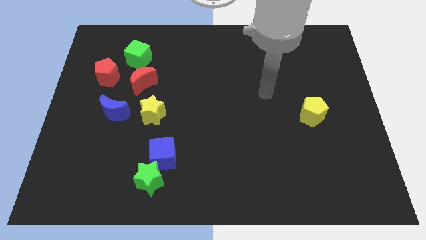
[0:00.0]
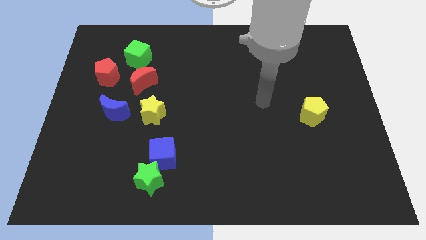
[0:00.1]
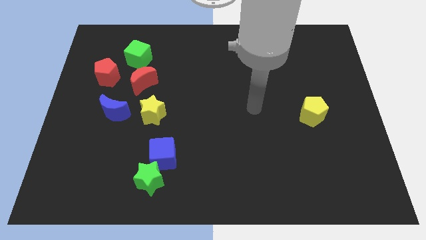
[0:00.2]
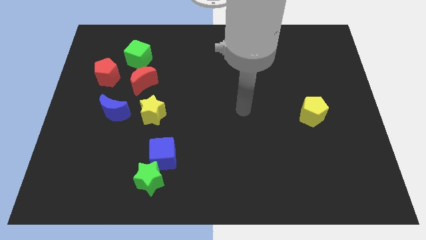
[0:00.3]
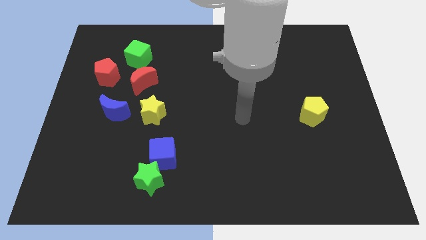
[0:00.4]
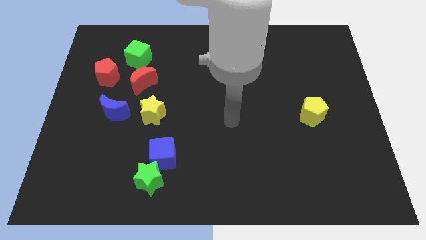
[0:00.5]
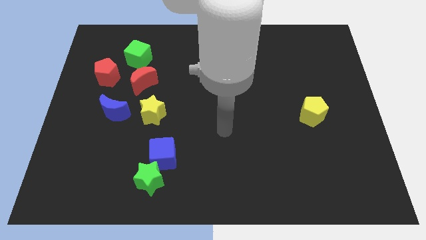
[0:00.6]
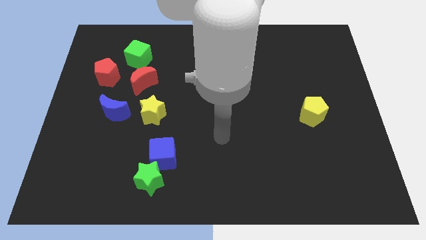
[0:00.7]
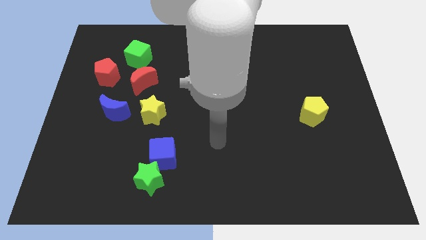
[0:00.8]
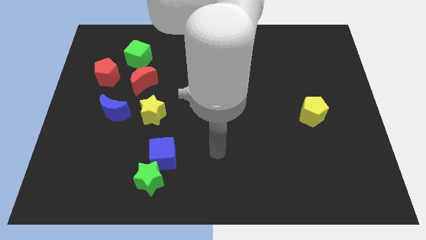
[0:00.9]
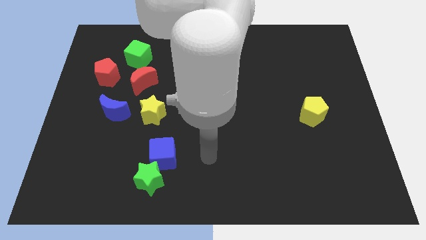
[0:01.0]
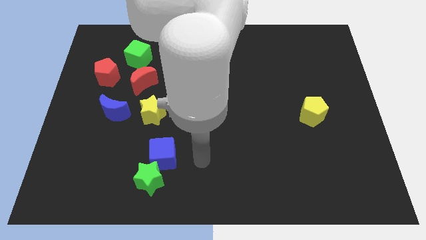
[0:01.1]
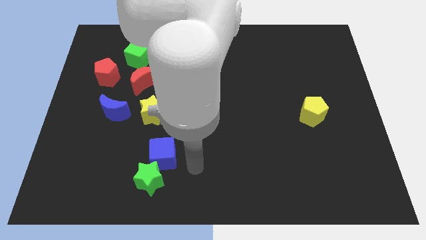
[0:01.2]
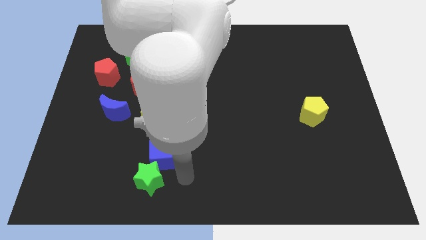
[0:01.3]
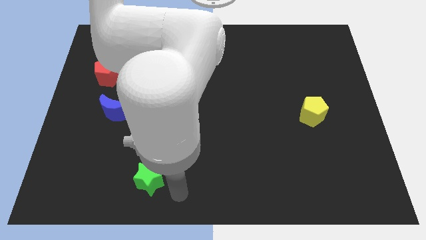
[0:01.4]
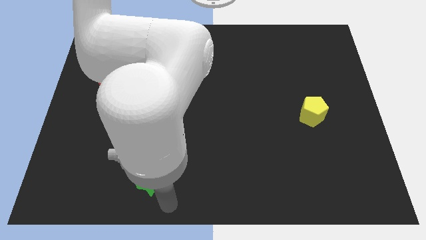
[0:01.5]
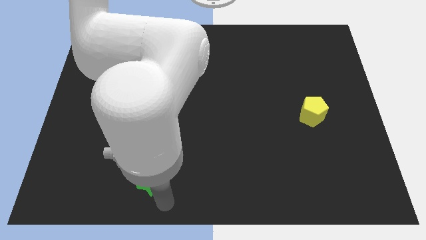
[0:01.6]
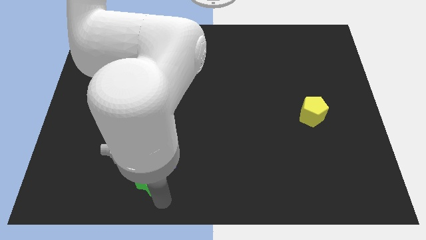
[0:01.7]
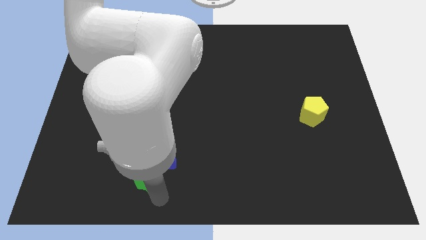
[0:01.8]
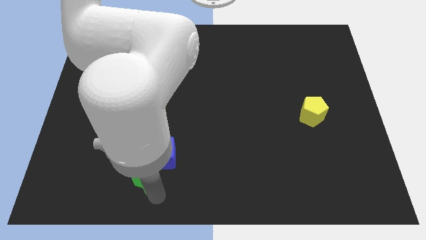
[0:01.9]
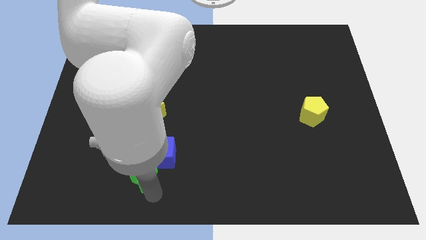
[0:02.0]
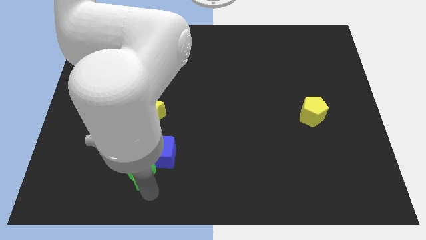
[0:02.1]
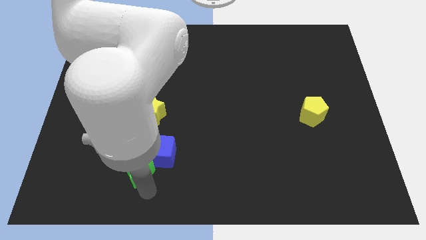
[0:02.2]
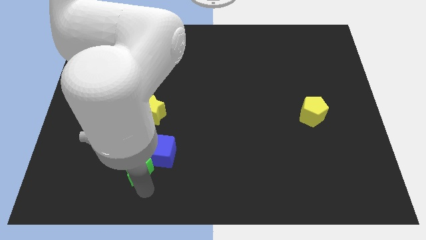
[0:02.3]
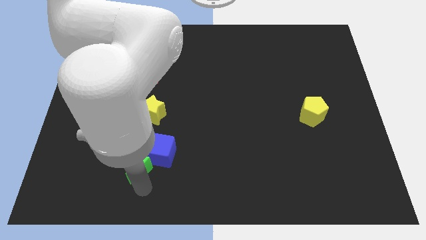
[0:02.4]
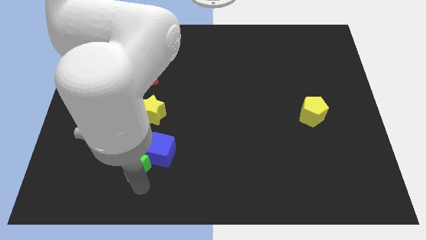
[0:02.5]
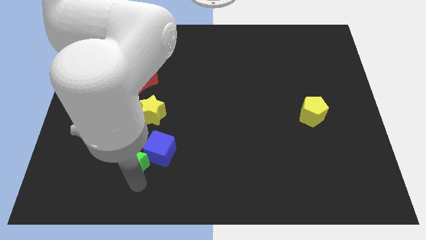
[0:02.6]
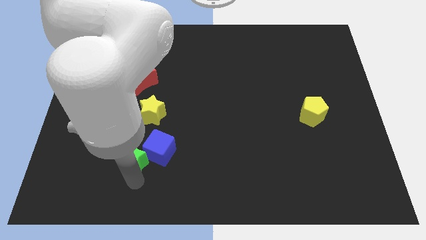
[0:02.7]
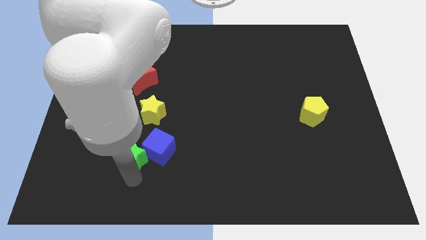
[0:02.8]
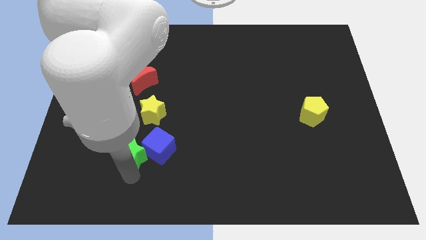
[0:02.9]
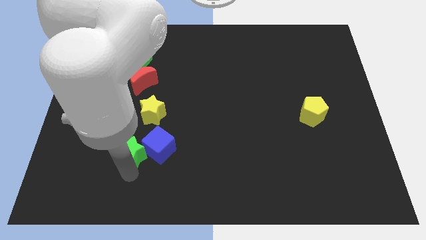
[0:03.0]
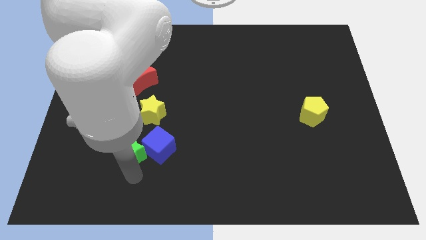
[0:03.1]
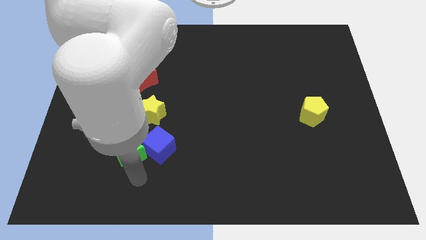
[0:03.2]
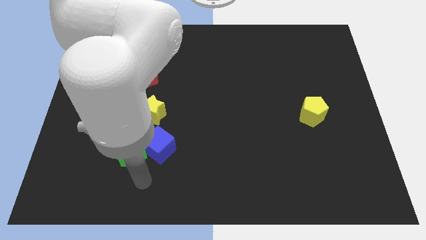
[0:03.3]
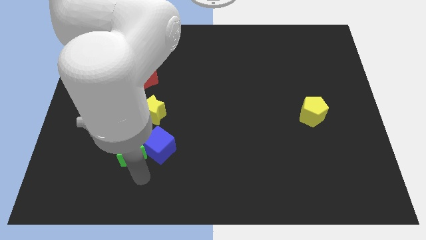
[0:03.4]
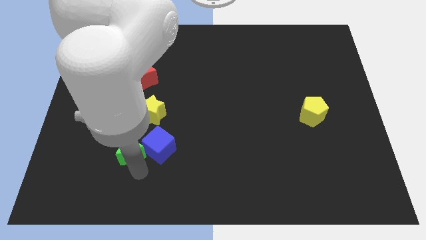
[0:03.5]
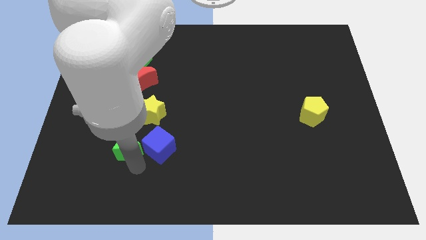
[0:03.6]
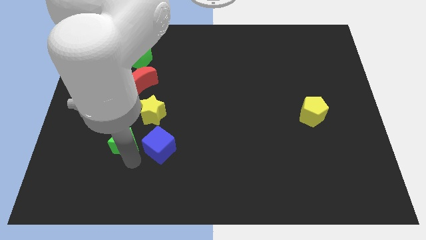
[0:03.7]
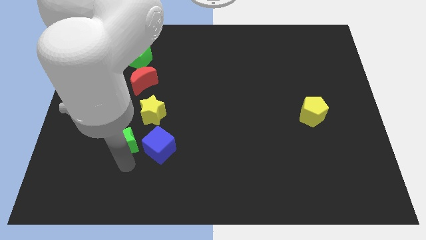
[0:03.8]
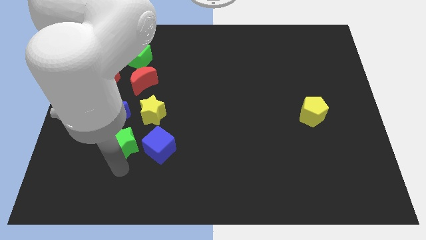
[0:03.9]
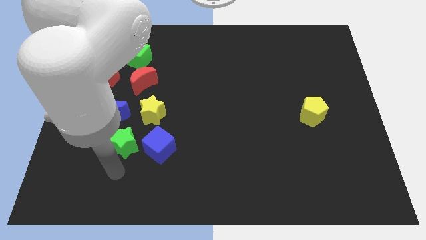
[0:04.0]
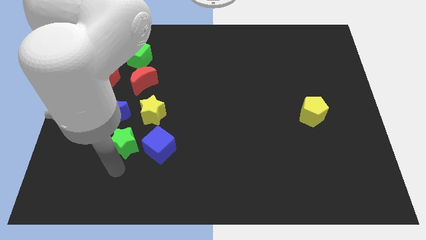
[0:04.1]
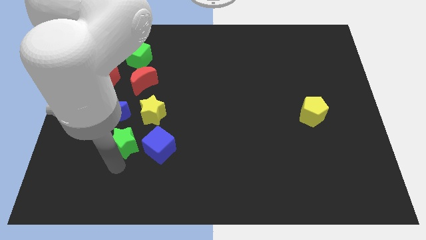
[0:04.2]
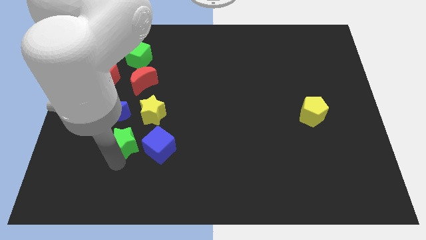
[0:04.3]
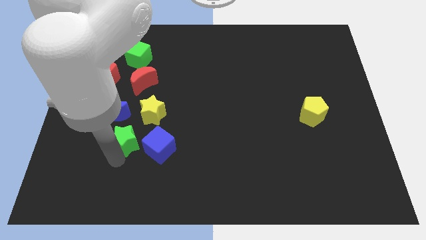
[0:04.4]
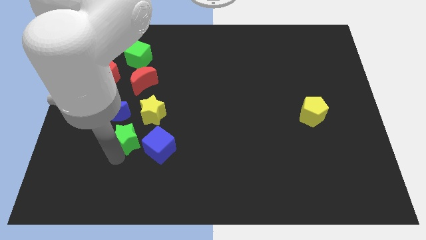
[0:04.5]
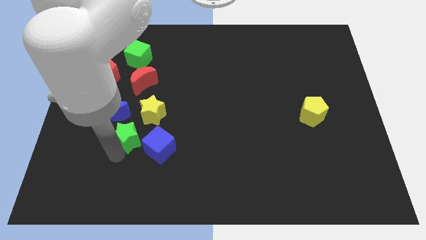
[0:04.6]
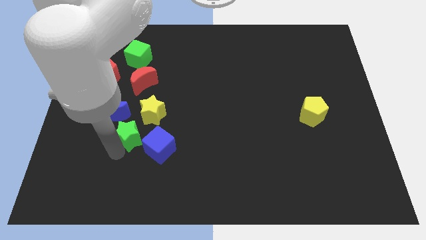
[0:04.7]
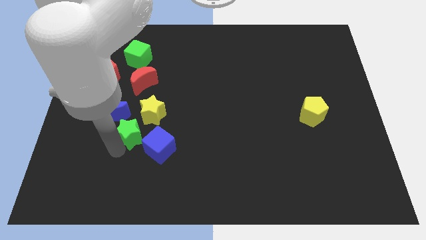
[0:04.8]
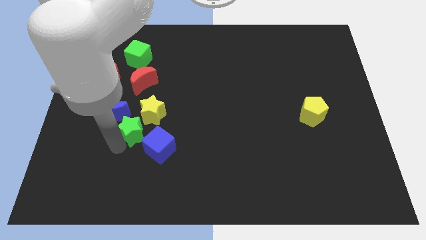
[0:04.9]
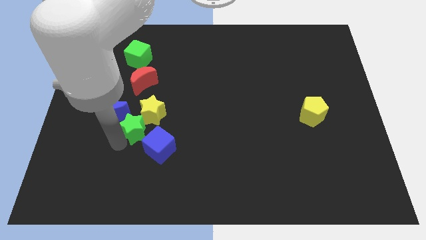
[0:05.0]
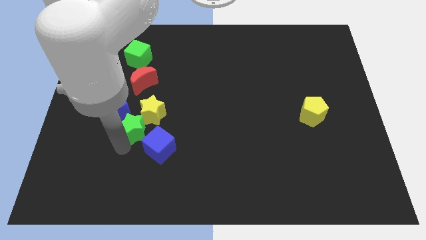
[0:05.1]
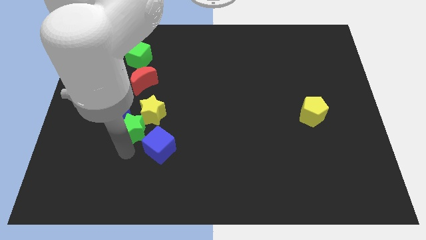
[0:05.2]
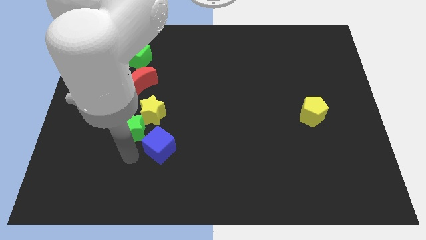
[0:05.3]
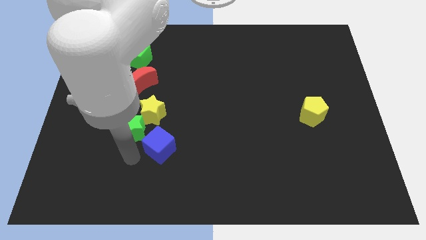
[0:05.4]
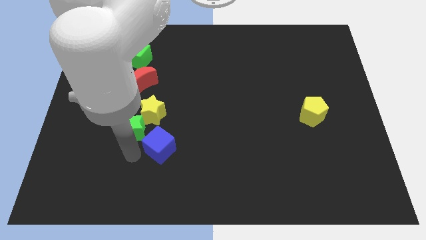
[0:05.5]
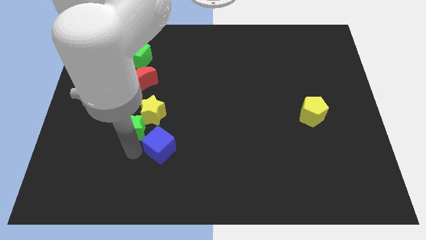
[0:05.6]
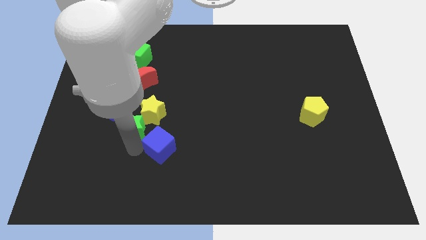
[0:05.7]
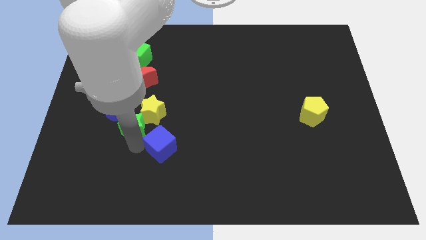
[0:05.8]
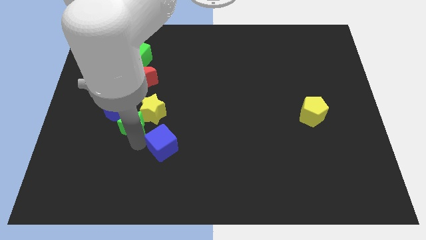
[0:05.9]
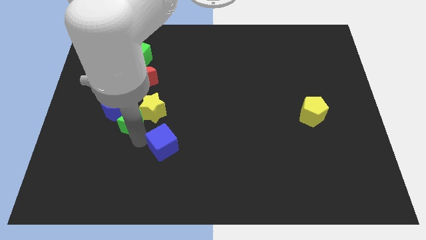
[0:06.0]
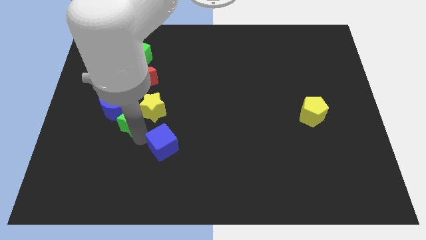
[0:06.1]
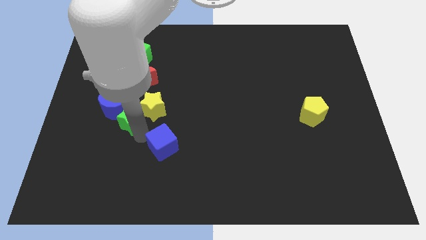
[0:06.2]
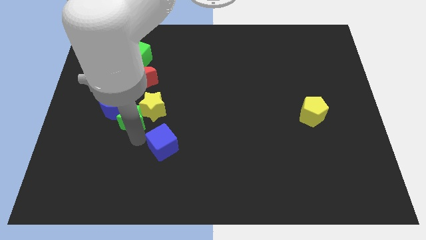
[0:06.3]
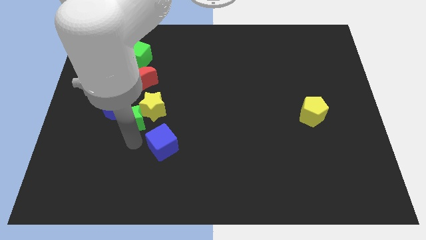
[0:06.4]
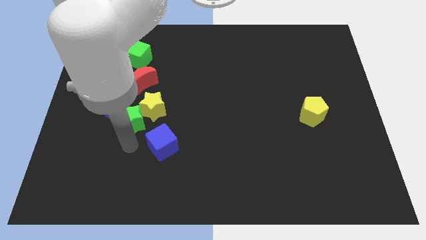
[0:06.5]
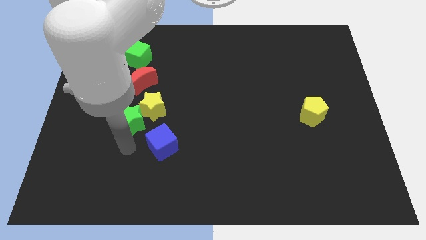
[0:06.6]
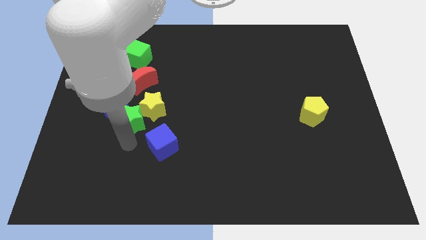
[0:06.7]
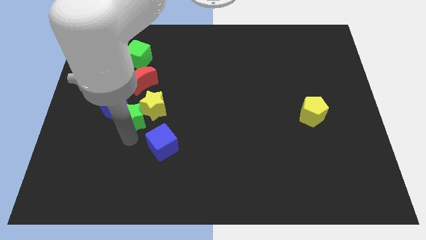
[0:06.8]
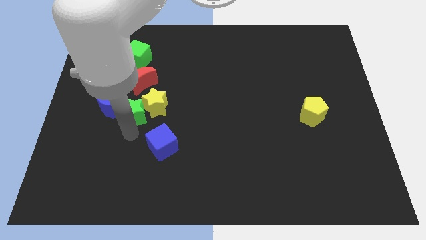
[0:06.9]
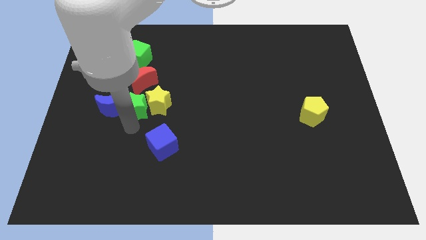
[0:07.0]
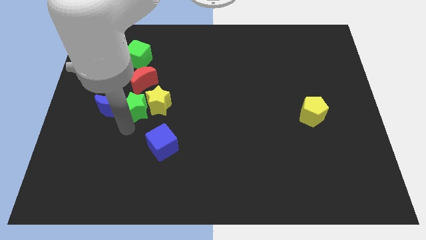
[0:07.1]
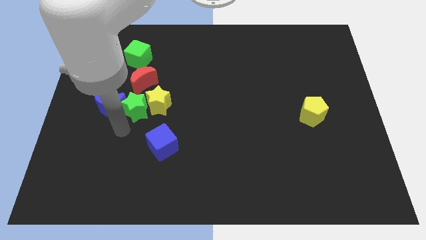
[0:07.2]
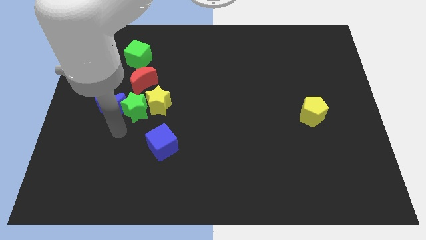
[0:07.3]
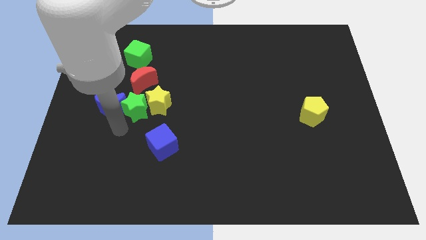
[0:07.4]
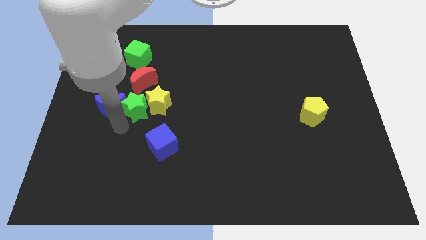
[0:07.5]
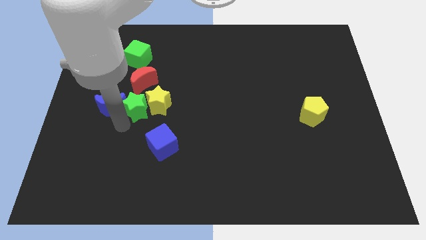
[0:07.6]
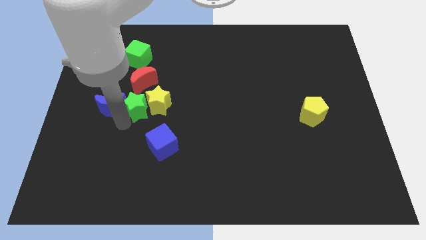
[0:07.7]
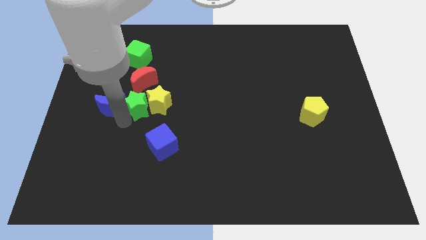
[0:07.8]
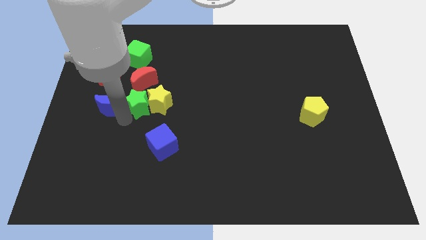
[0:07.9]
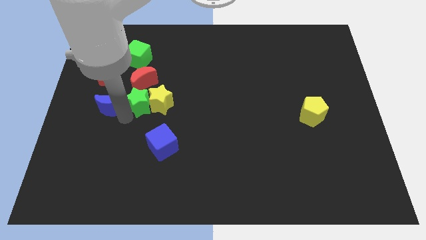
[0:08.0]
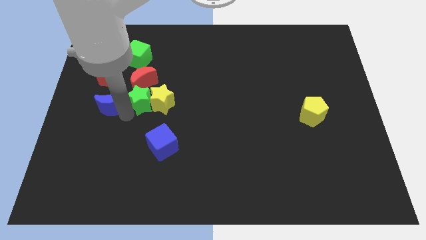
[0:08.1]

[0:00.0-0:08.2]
put the green star to the bottom right side of the red moon
